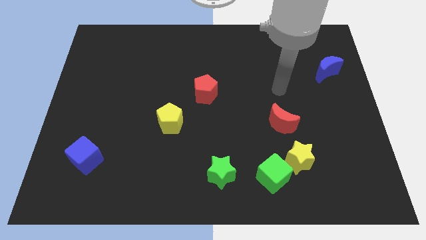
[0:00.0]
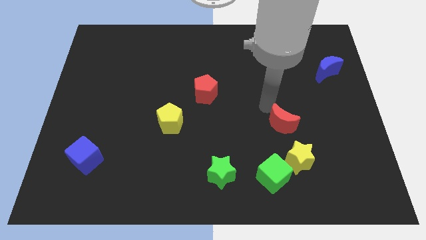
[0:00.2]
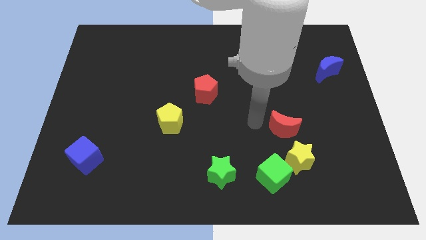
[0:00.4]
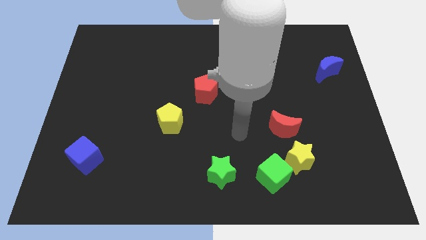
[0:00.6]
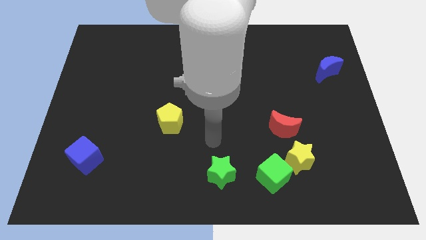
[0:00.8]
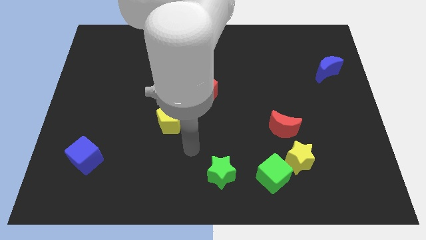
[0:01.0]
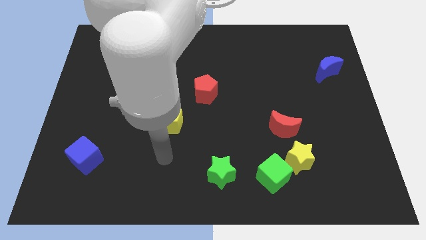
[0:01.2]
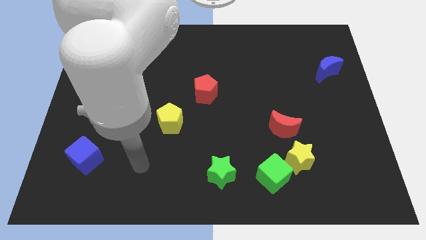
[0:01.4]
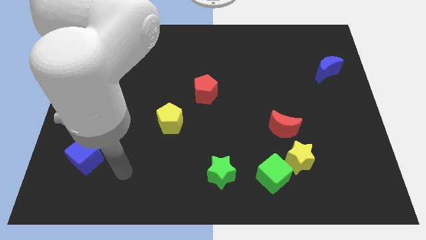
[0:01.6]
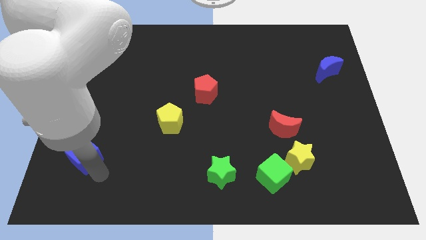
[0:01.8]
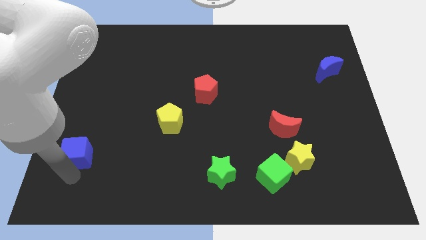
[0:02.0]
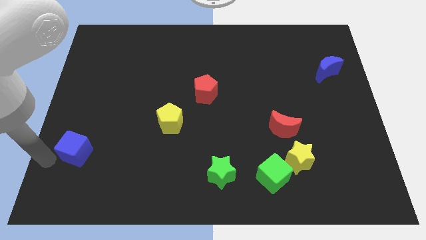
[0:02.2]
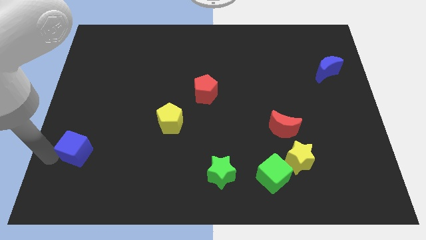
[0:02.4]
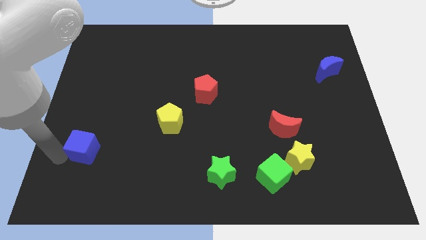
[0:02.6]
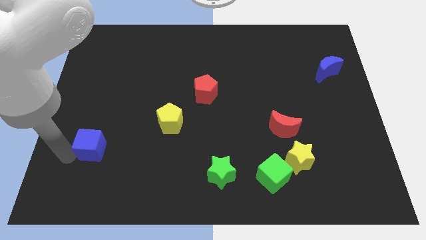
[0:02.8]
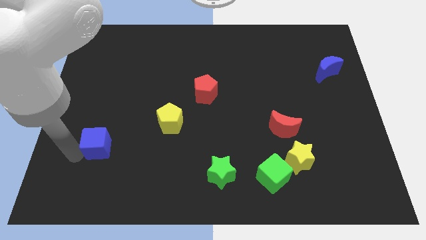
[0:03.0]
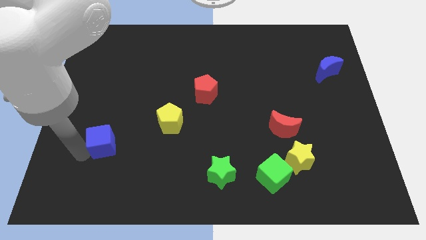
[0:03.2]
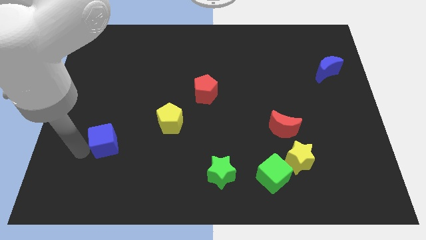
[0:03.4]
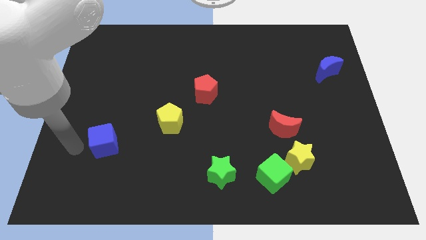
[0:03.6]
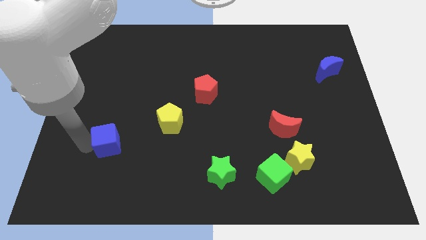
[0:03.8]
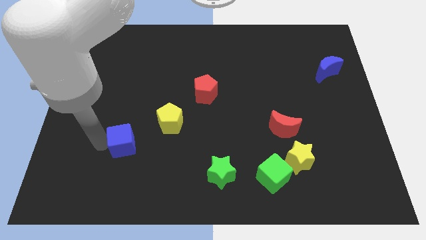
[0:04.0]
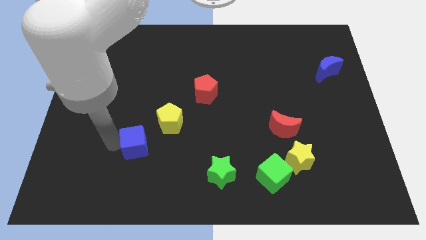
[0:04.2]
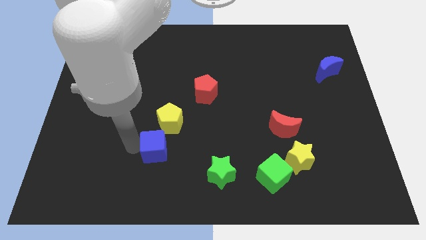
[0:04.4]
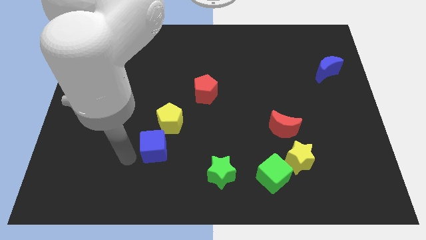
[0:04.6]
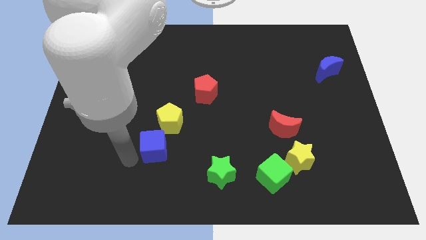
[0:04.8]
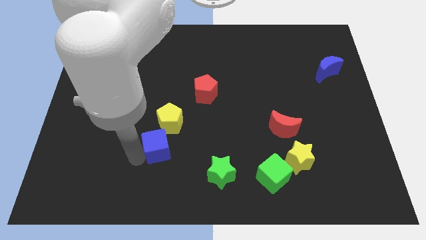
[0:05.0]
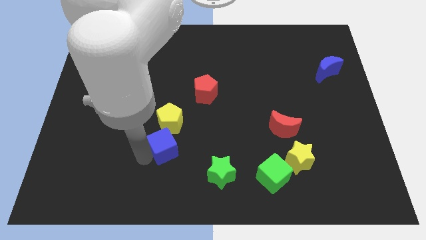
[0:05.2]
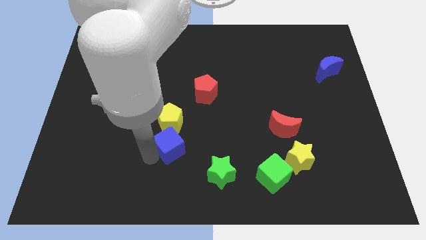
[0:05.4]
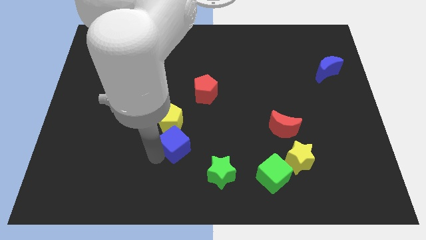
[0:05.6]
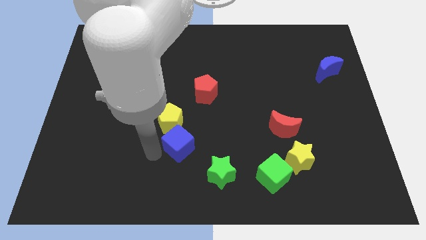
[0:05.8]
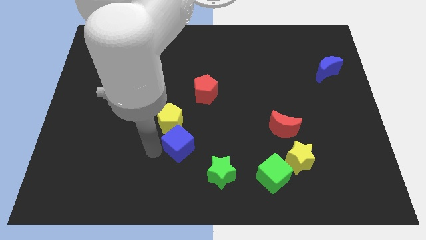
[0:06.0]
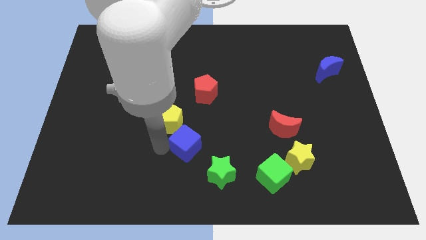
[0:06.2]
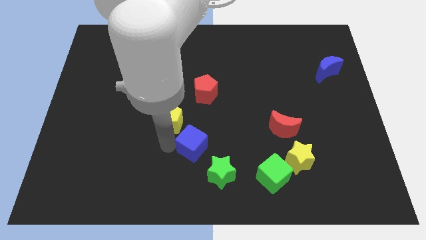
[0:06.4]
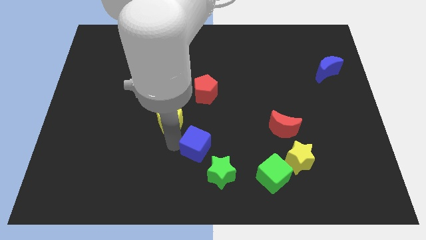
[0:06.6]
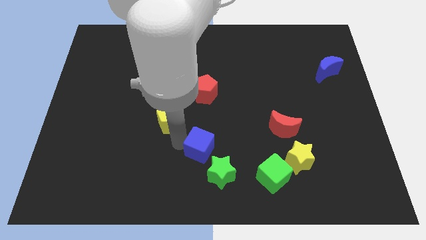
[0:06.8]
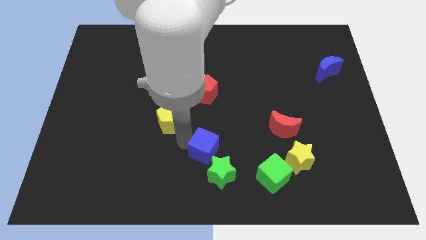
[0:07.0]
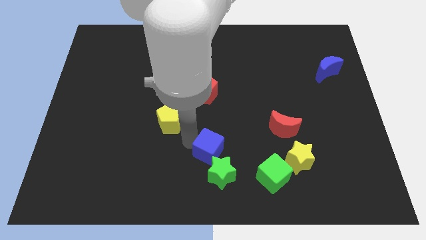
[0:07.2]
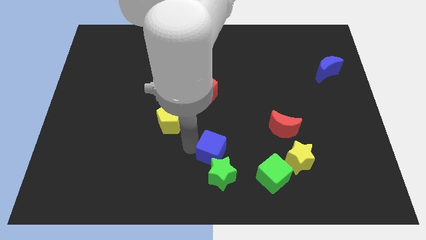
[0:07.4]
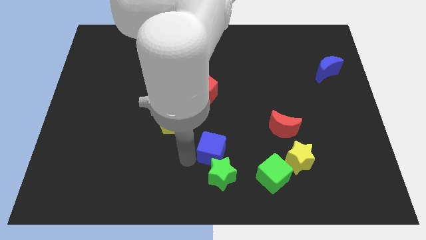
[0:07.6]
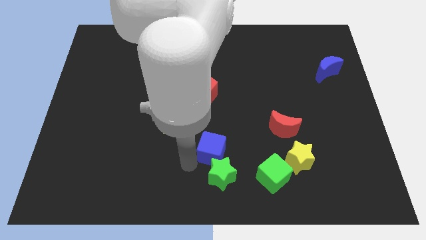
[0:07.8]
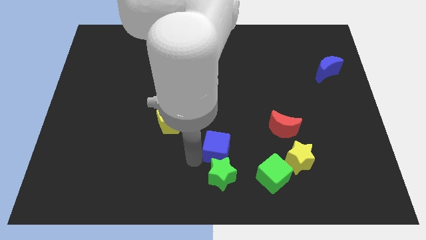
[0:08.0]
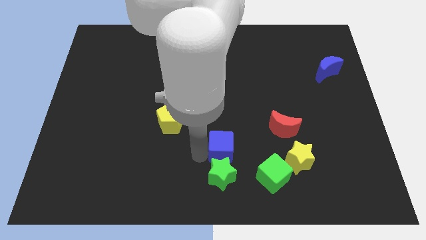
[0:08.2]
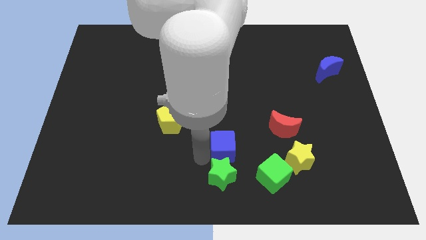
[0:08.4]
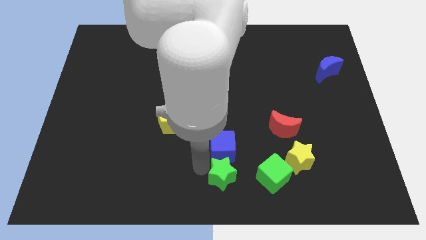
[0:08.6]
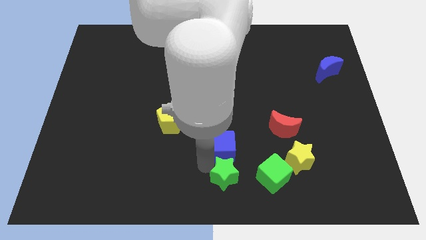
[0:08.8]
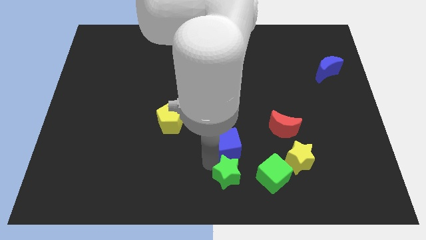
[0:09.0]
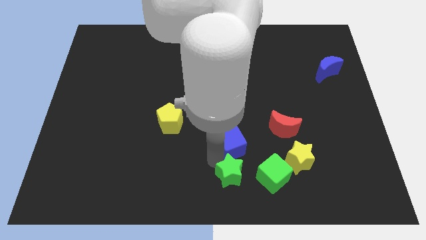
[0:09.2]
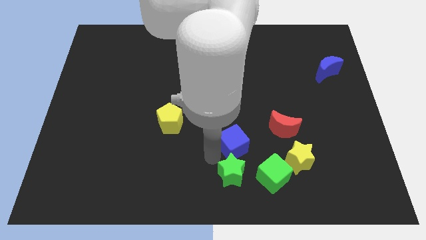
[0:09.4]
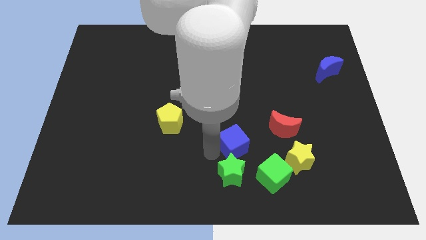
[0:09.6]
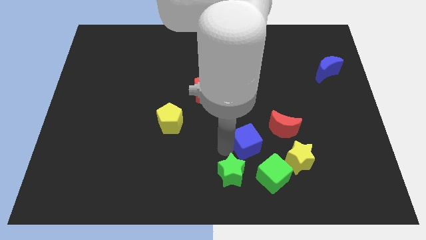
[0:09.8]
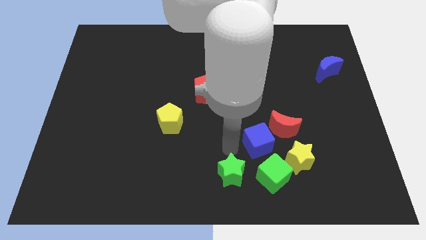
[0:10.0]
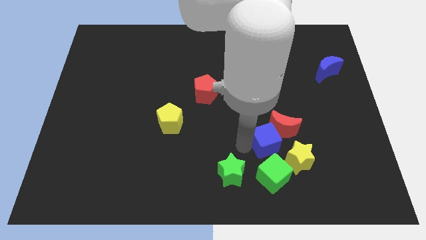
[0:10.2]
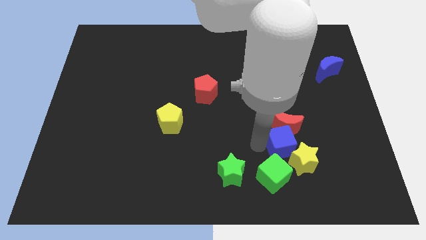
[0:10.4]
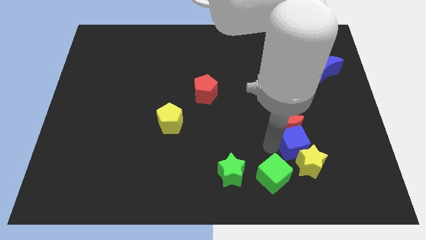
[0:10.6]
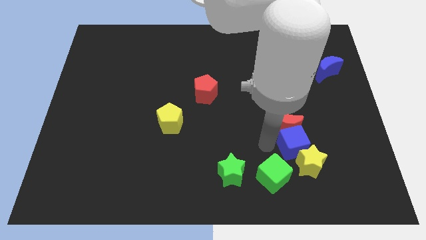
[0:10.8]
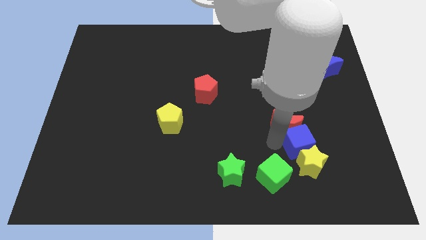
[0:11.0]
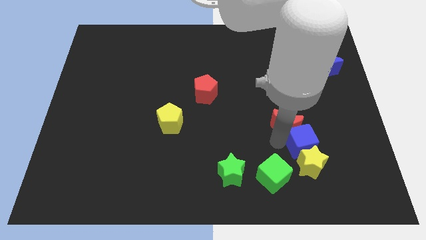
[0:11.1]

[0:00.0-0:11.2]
slide the blue cube to the top right side of the yellow star

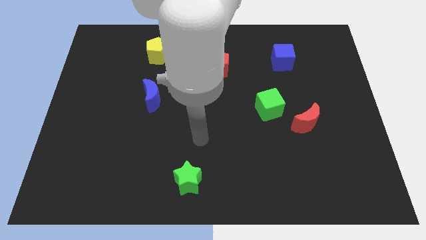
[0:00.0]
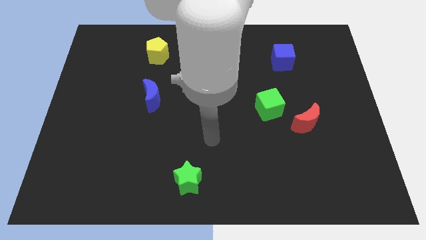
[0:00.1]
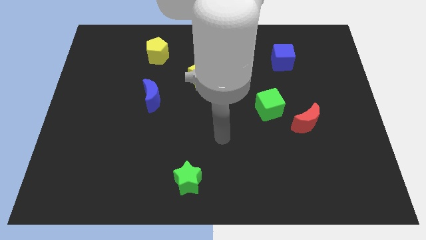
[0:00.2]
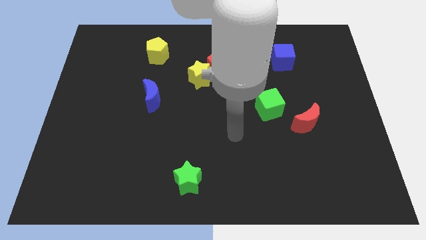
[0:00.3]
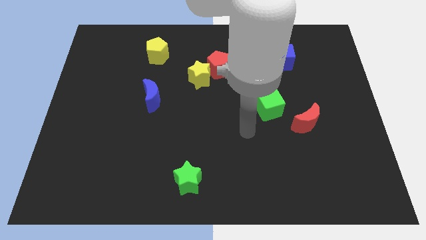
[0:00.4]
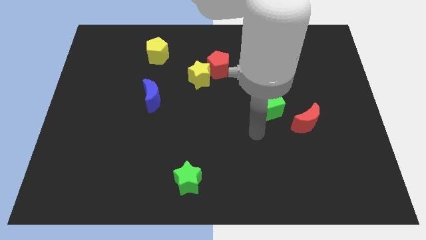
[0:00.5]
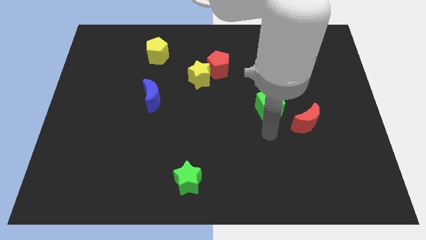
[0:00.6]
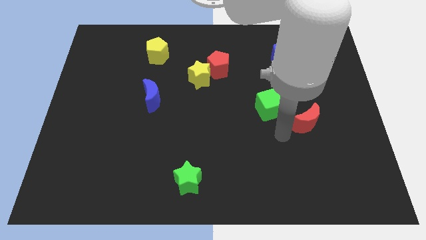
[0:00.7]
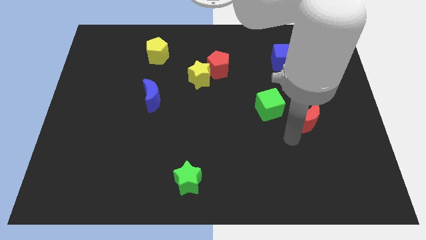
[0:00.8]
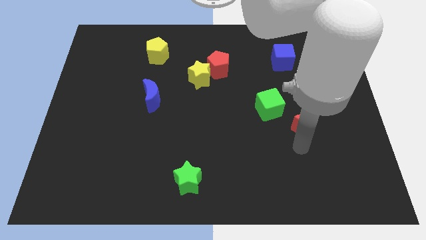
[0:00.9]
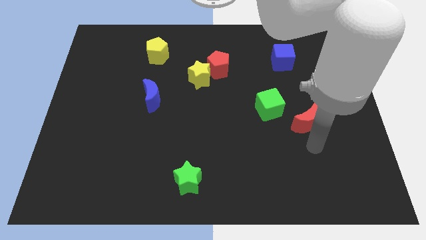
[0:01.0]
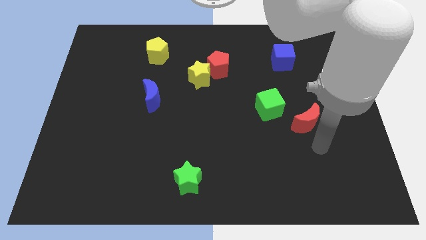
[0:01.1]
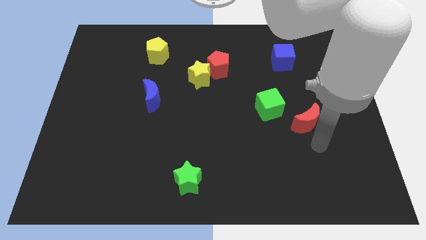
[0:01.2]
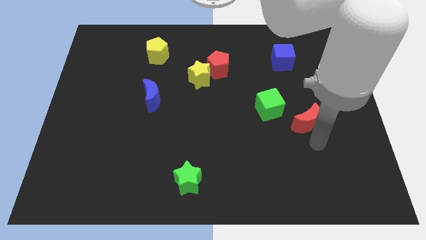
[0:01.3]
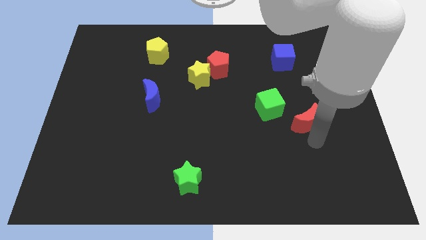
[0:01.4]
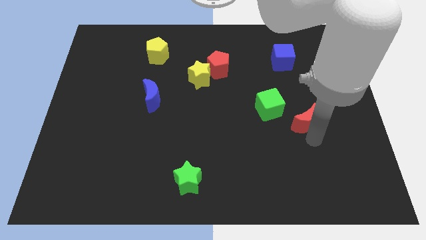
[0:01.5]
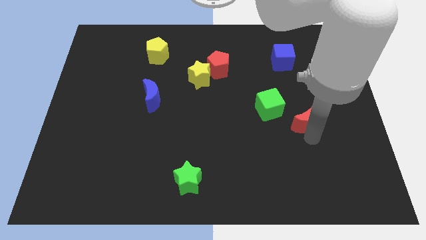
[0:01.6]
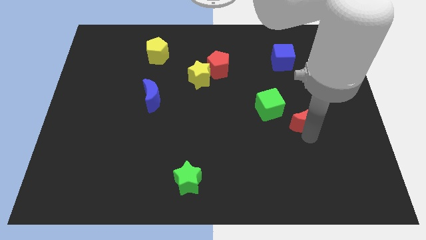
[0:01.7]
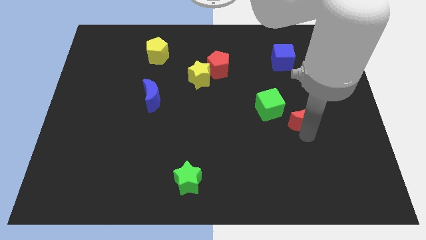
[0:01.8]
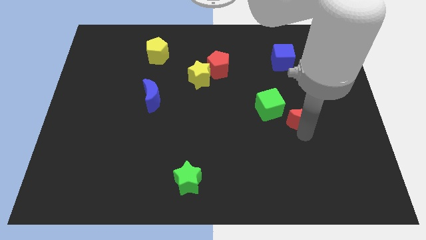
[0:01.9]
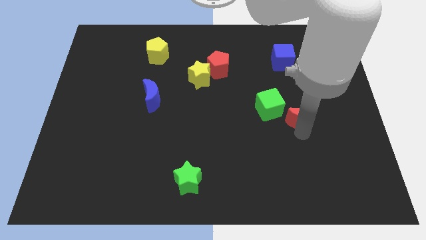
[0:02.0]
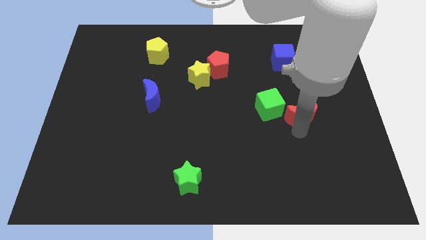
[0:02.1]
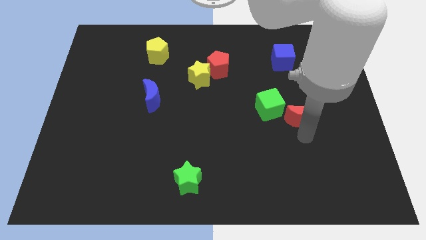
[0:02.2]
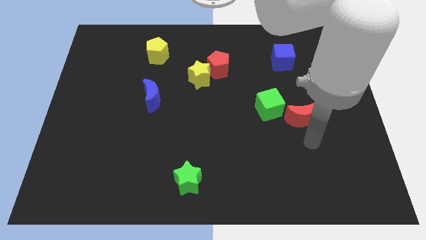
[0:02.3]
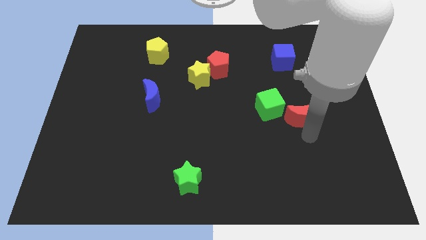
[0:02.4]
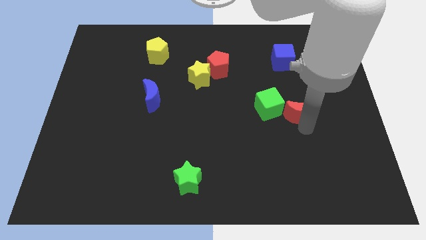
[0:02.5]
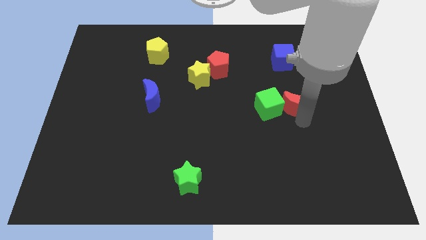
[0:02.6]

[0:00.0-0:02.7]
push the red moon diagonally up and to the right of the green cube
